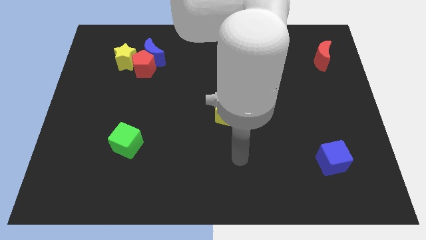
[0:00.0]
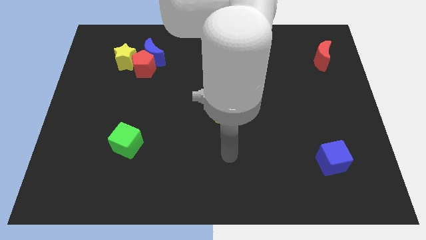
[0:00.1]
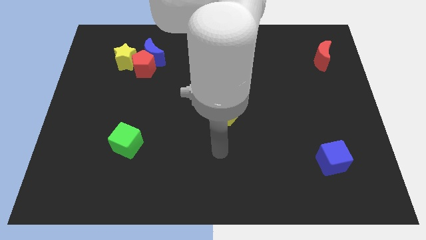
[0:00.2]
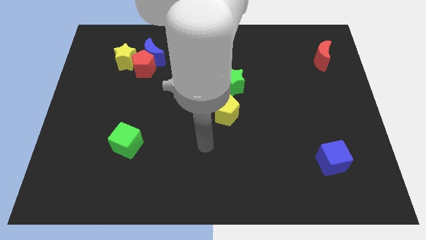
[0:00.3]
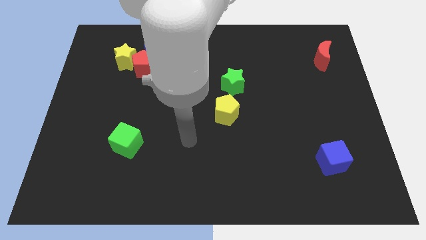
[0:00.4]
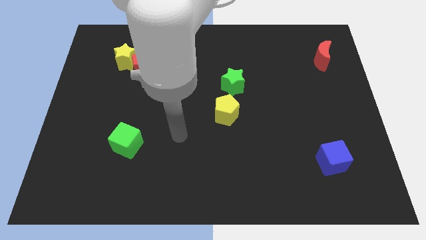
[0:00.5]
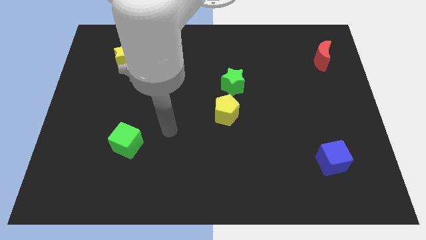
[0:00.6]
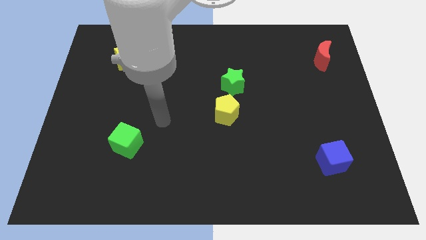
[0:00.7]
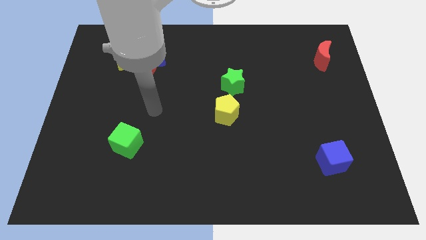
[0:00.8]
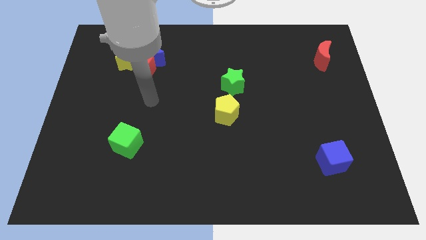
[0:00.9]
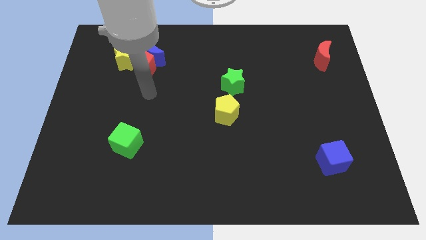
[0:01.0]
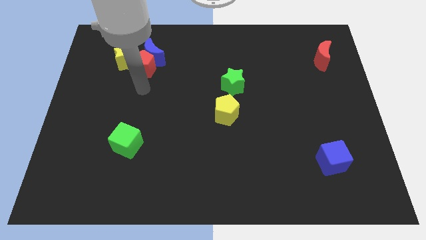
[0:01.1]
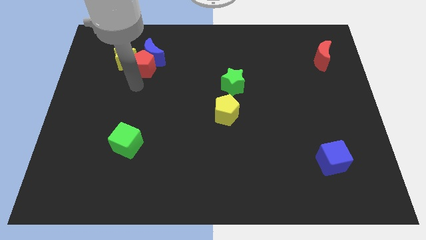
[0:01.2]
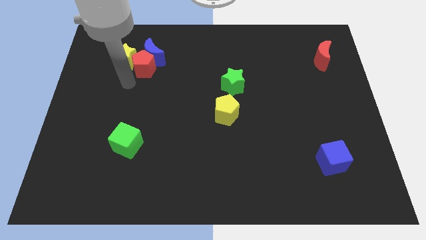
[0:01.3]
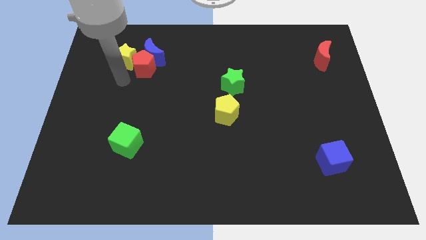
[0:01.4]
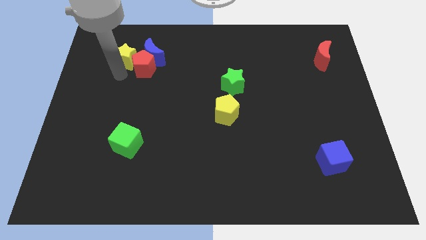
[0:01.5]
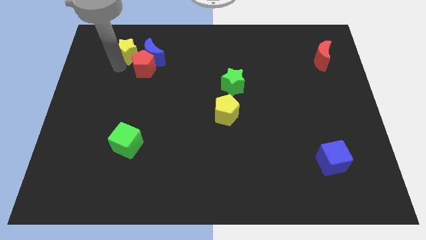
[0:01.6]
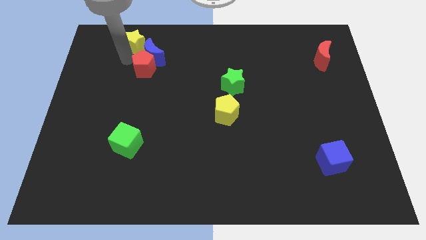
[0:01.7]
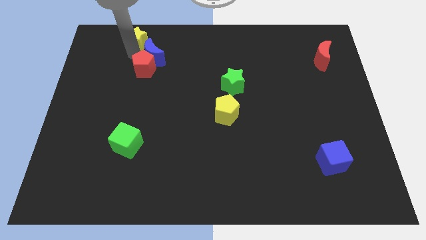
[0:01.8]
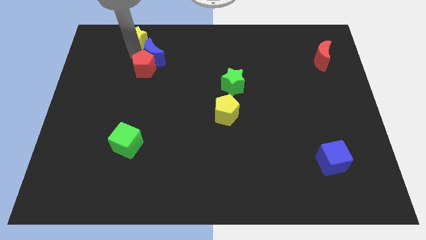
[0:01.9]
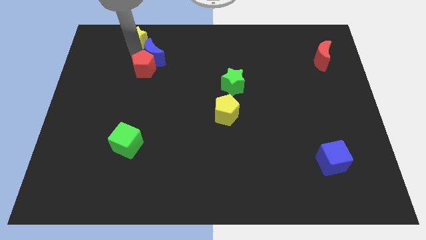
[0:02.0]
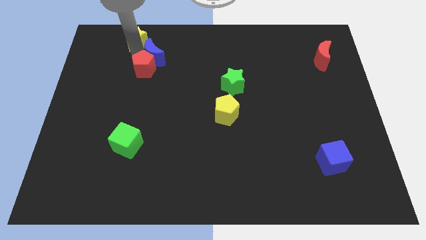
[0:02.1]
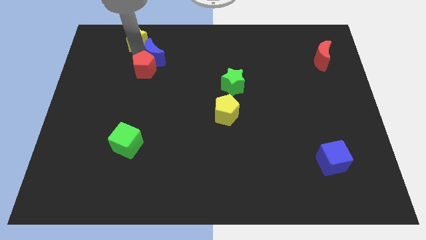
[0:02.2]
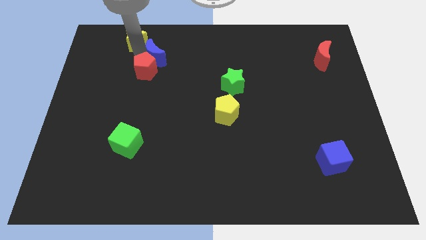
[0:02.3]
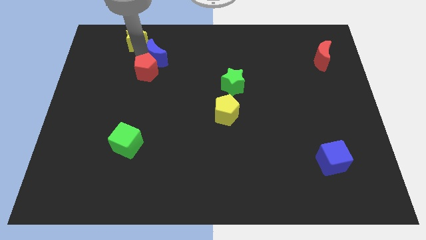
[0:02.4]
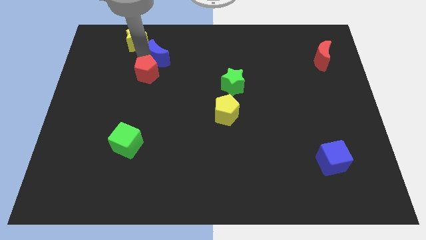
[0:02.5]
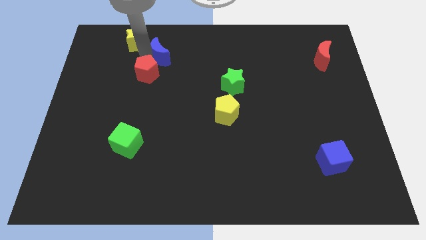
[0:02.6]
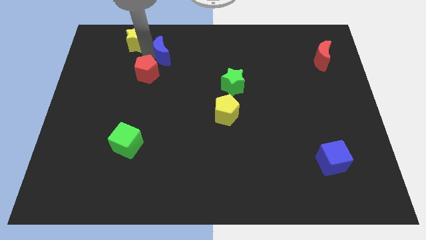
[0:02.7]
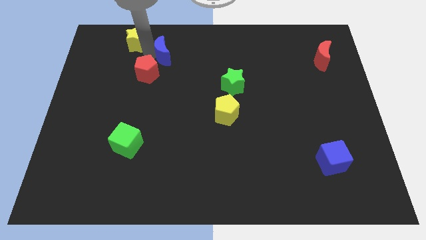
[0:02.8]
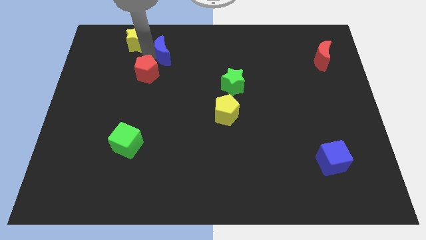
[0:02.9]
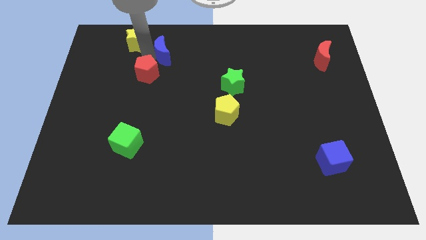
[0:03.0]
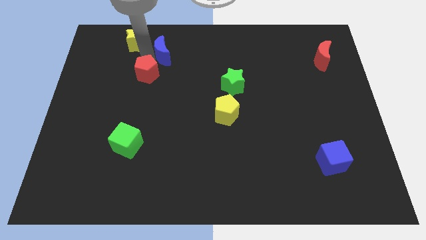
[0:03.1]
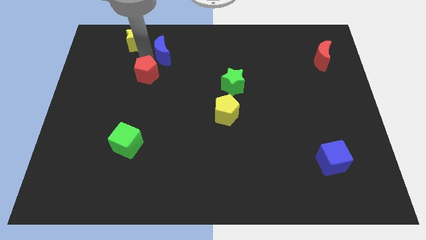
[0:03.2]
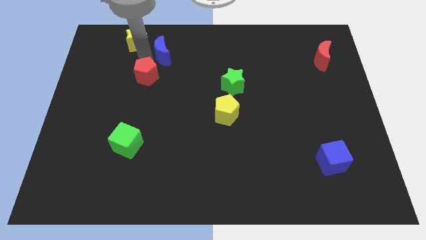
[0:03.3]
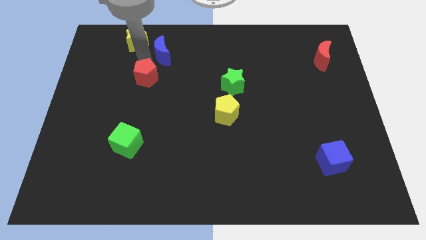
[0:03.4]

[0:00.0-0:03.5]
move the red pentagon away from the blue moon and yellow star

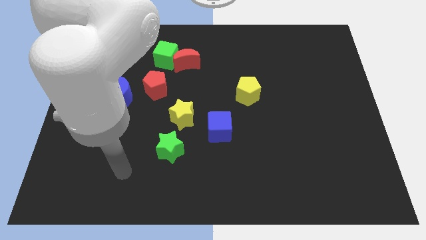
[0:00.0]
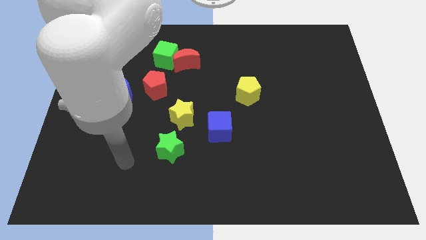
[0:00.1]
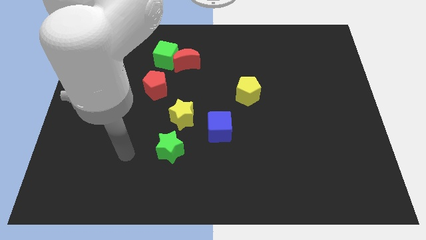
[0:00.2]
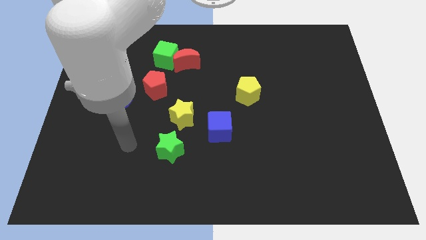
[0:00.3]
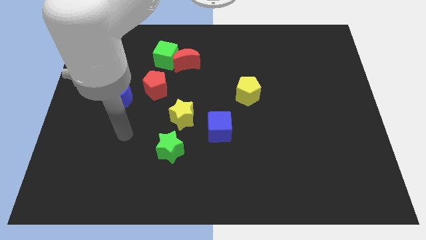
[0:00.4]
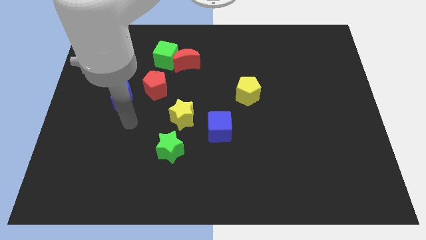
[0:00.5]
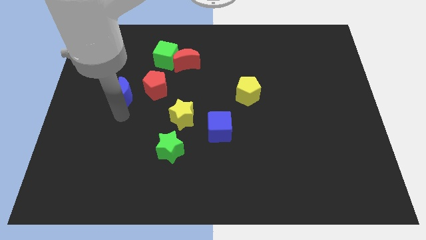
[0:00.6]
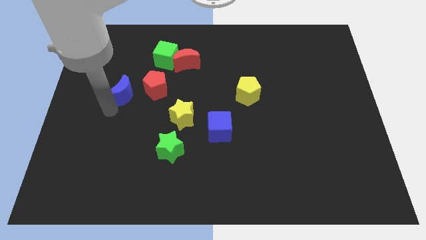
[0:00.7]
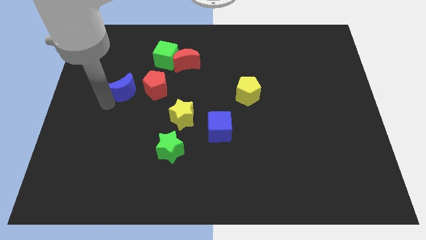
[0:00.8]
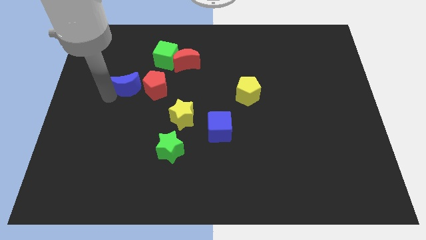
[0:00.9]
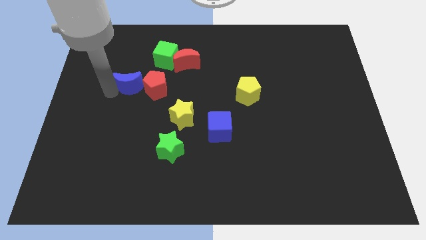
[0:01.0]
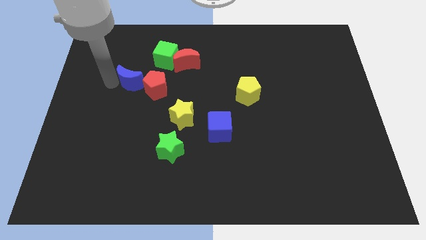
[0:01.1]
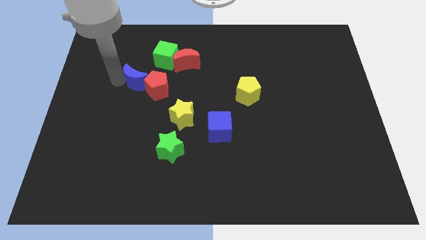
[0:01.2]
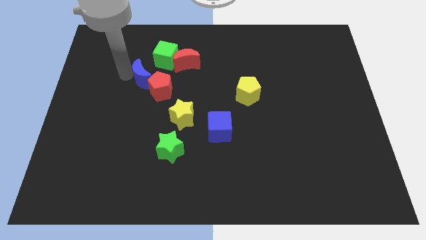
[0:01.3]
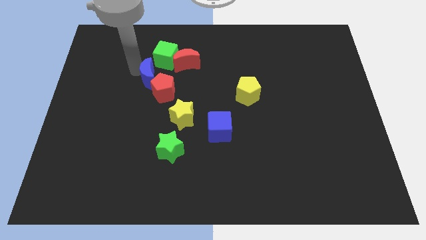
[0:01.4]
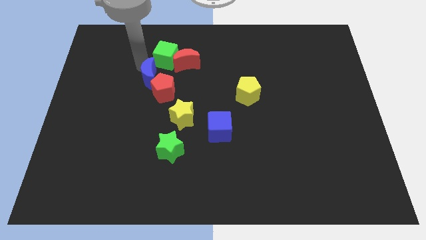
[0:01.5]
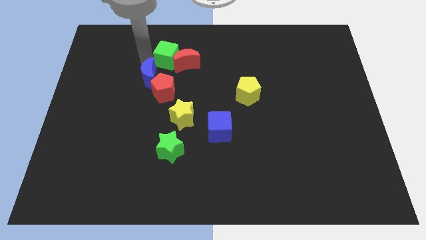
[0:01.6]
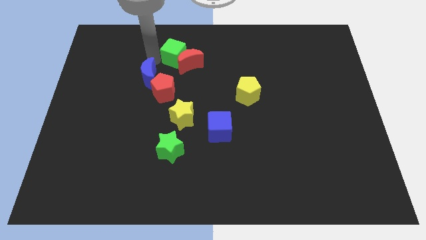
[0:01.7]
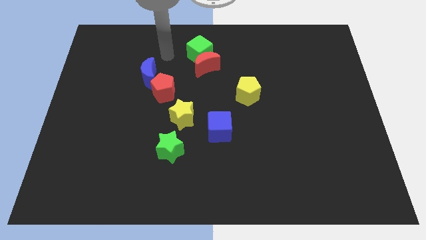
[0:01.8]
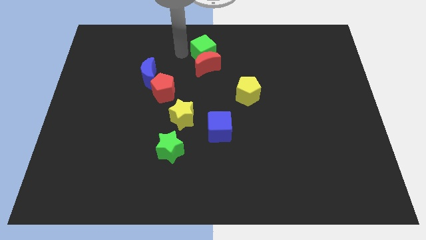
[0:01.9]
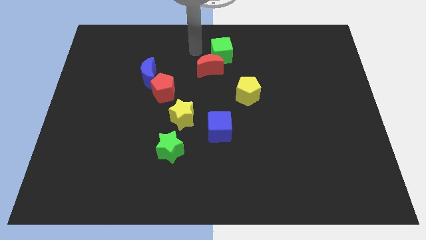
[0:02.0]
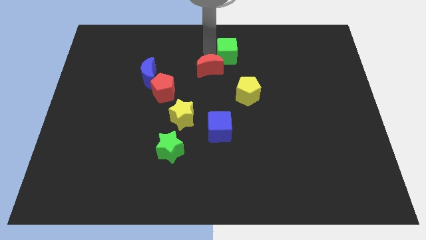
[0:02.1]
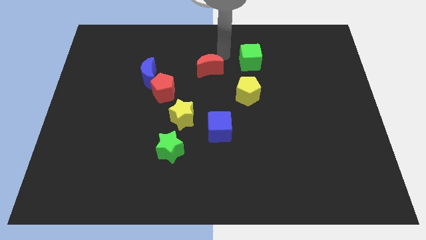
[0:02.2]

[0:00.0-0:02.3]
pull the red moon apart from the green cube

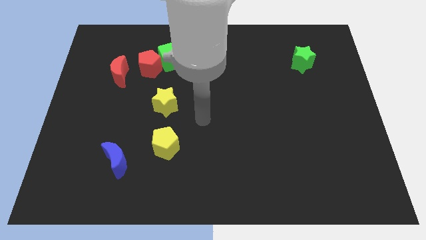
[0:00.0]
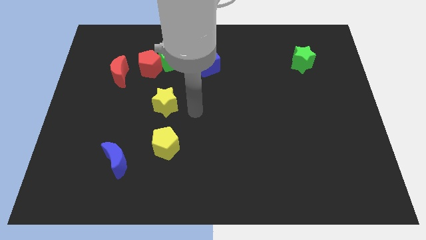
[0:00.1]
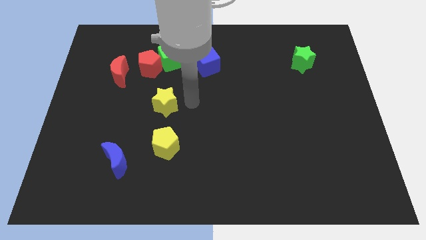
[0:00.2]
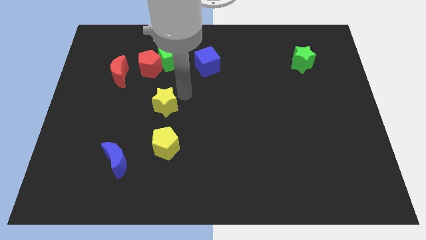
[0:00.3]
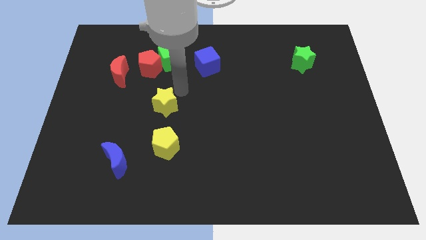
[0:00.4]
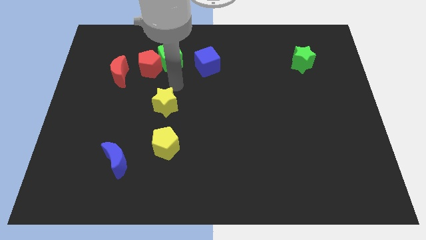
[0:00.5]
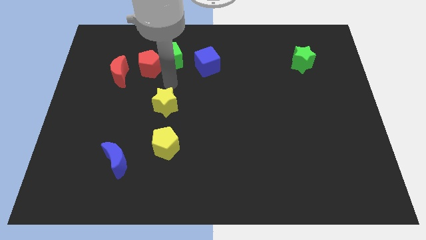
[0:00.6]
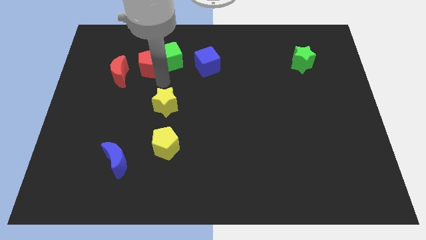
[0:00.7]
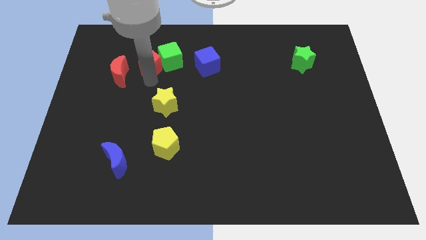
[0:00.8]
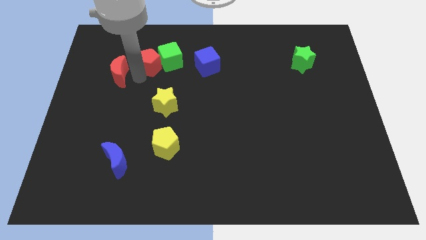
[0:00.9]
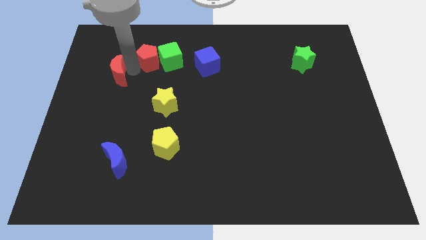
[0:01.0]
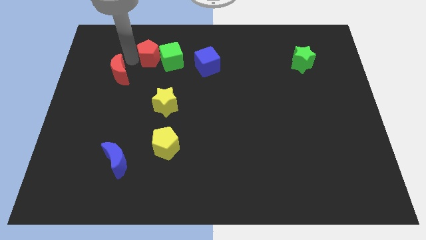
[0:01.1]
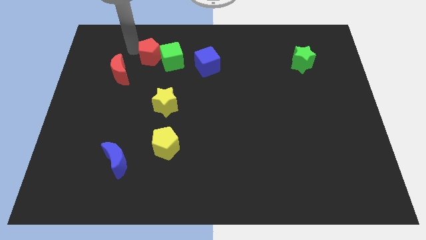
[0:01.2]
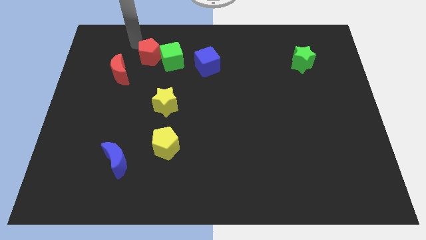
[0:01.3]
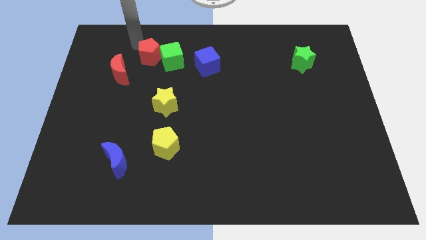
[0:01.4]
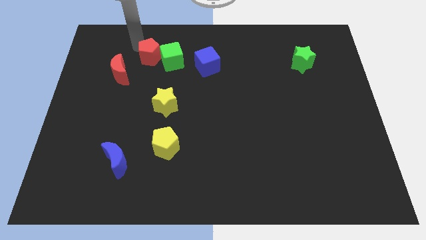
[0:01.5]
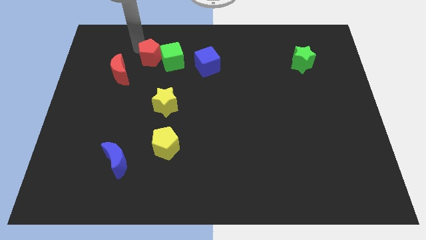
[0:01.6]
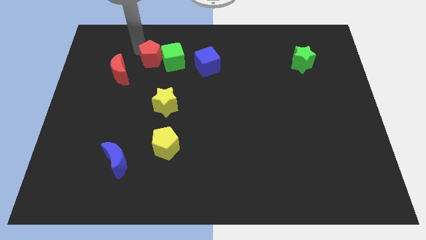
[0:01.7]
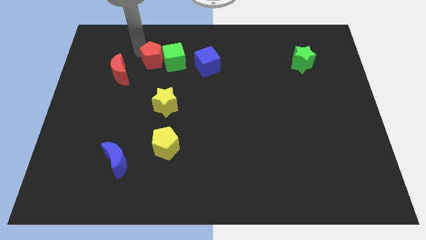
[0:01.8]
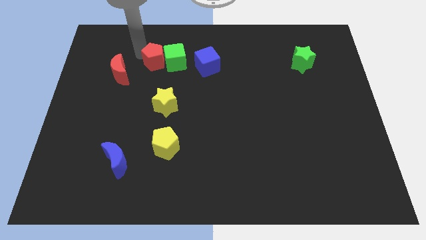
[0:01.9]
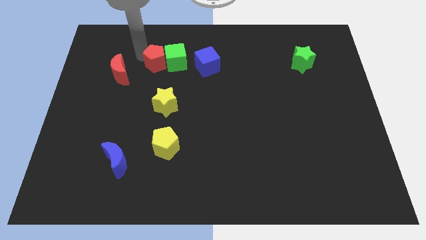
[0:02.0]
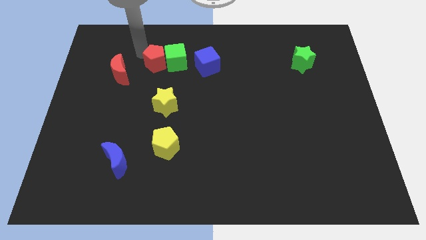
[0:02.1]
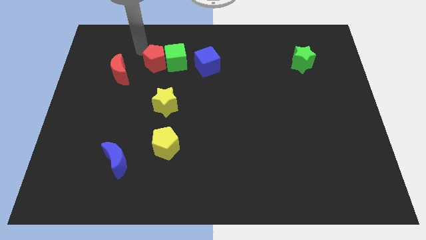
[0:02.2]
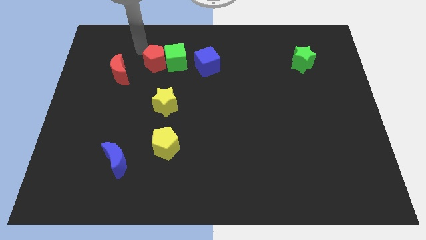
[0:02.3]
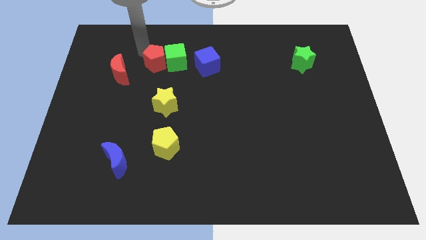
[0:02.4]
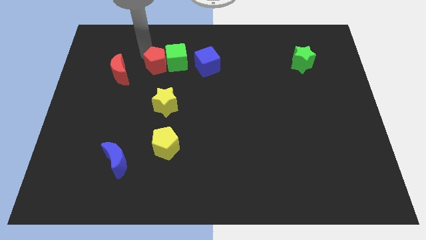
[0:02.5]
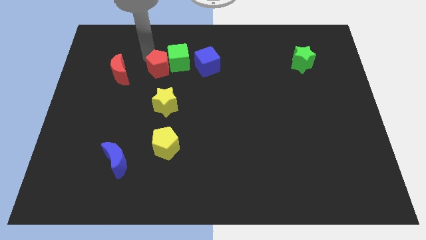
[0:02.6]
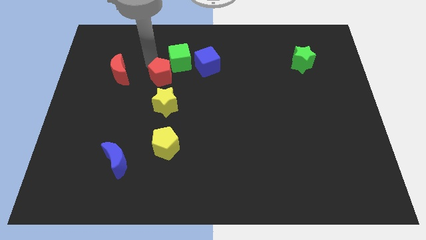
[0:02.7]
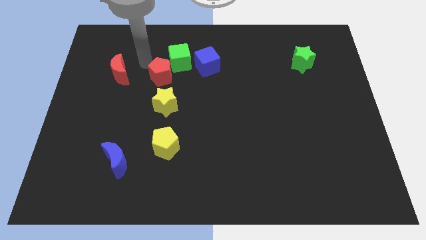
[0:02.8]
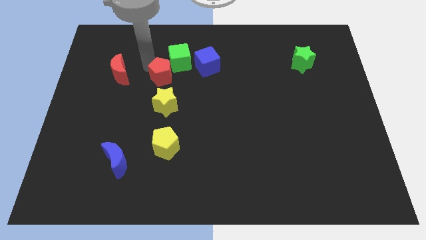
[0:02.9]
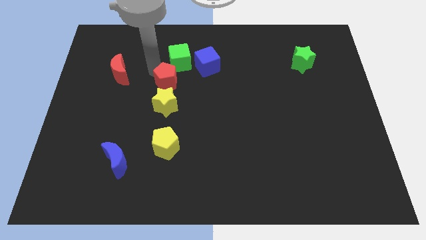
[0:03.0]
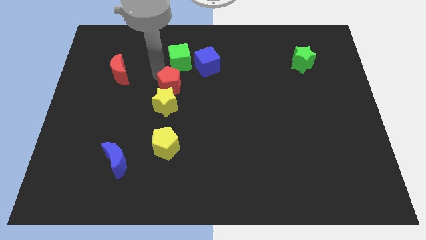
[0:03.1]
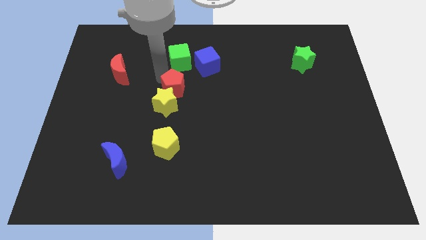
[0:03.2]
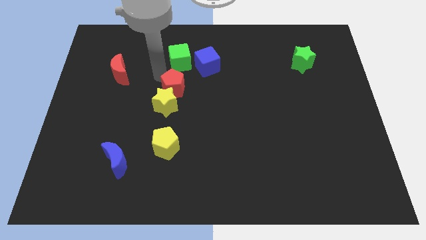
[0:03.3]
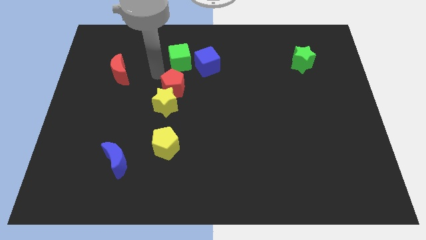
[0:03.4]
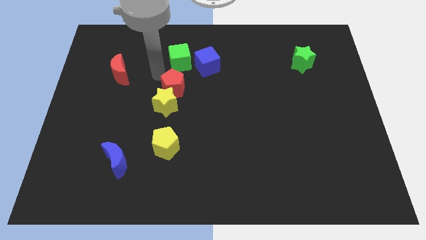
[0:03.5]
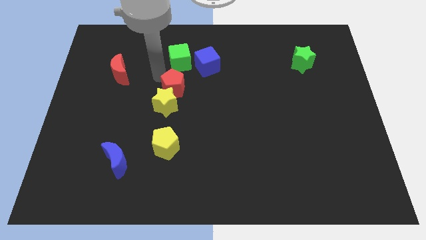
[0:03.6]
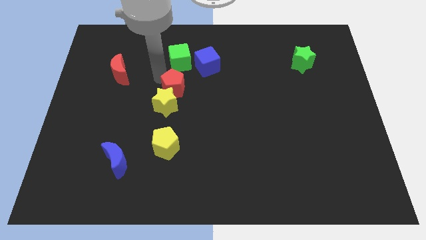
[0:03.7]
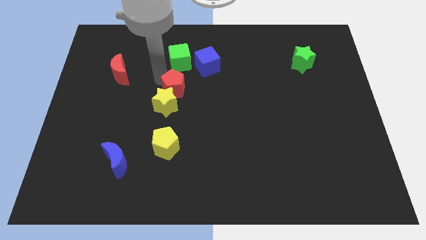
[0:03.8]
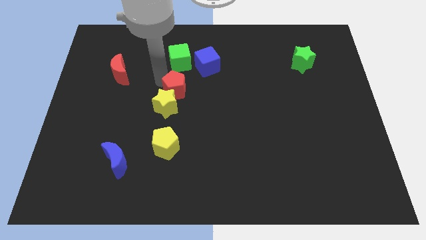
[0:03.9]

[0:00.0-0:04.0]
separate the red pentagon from the green cube and red moon
